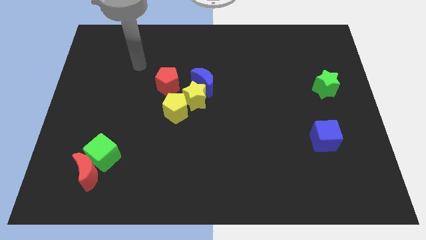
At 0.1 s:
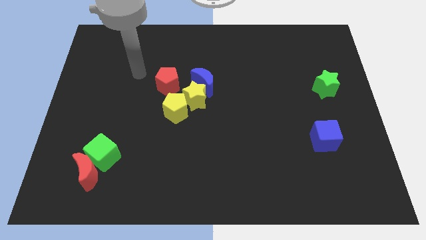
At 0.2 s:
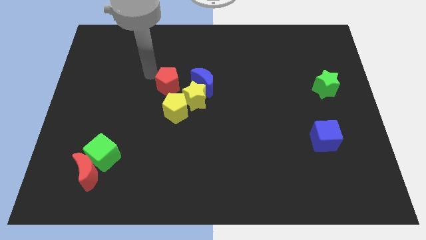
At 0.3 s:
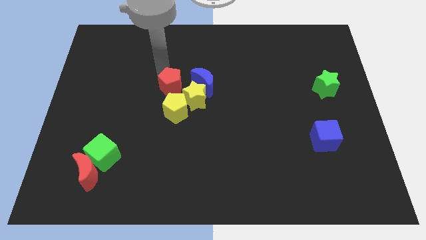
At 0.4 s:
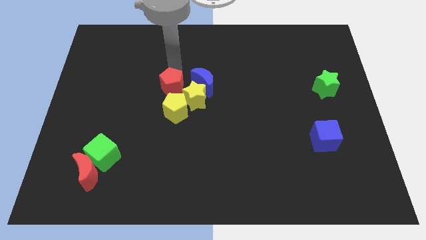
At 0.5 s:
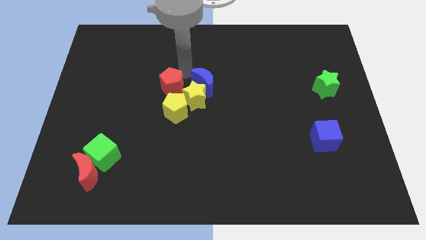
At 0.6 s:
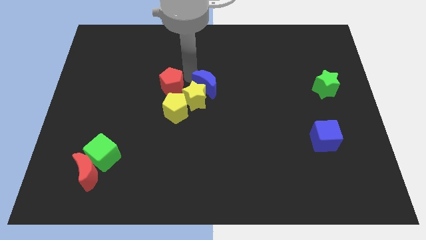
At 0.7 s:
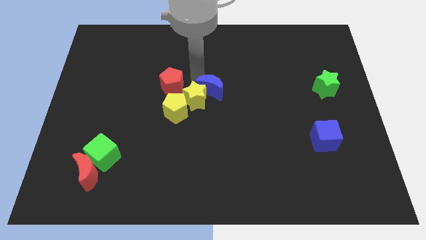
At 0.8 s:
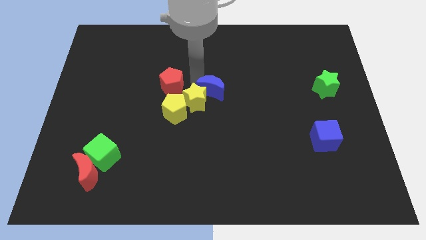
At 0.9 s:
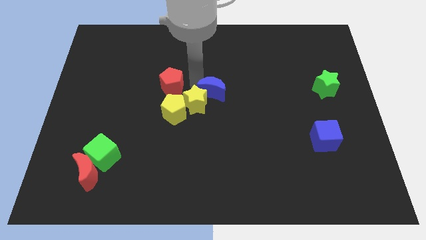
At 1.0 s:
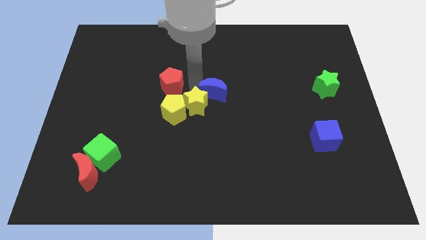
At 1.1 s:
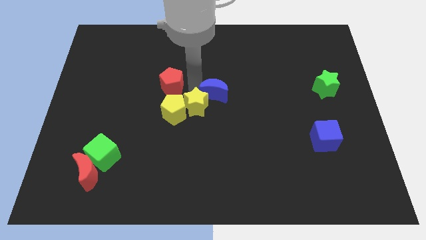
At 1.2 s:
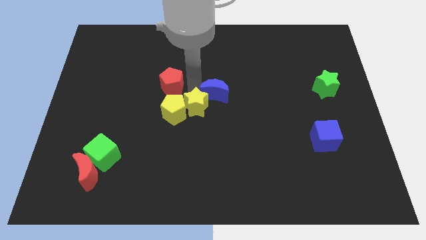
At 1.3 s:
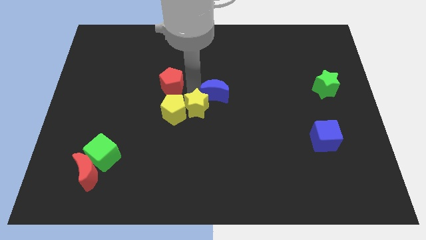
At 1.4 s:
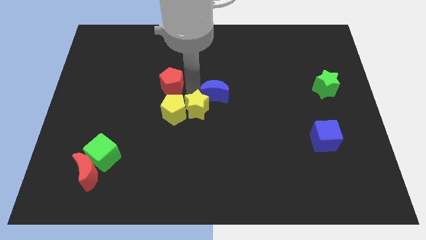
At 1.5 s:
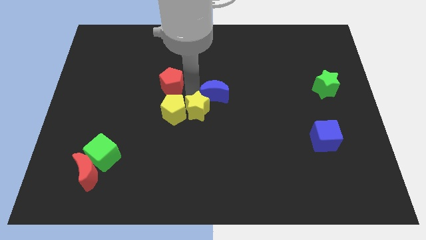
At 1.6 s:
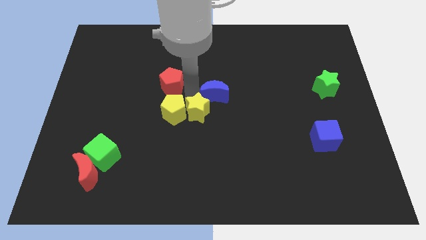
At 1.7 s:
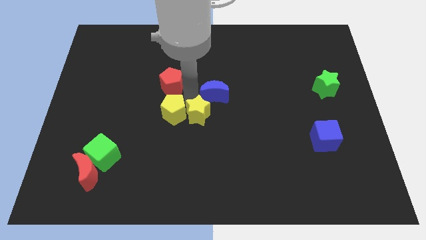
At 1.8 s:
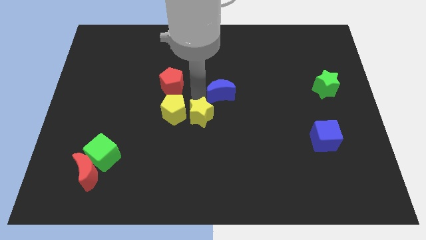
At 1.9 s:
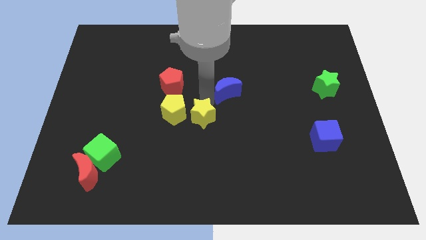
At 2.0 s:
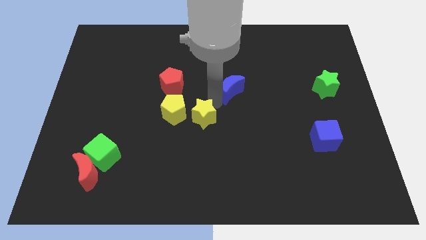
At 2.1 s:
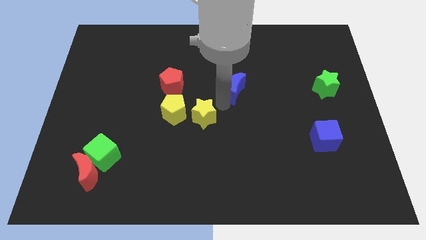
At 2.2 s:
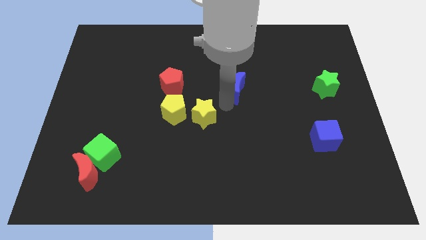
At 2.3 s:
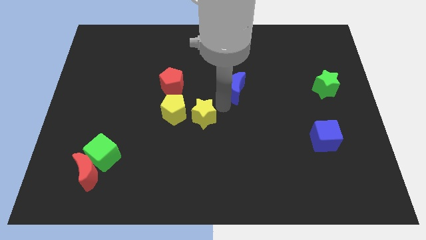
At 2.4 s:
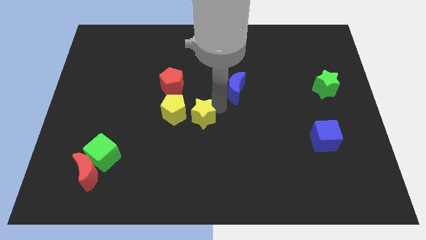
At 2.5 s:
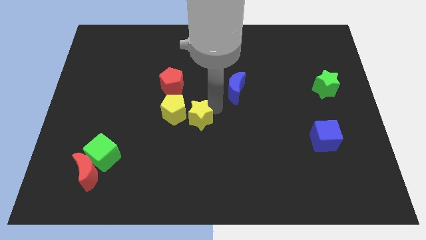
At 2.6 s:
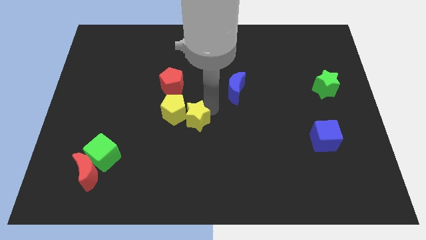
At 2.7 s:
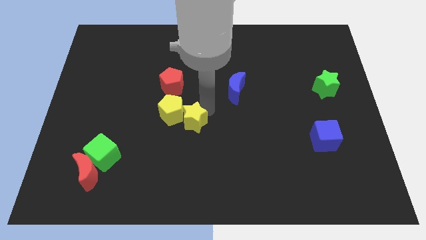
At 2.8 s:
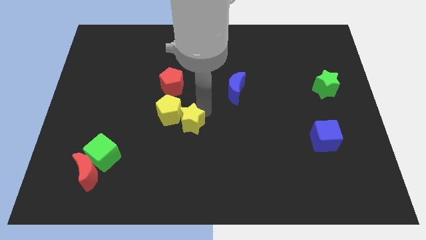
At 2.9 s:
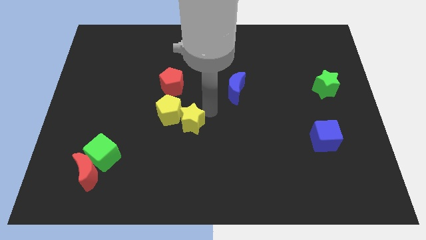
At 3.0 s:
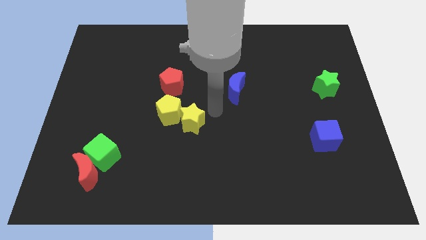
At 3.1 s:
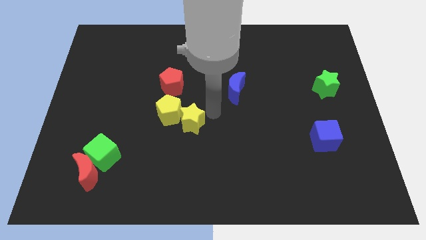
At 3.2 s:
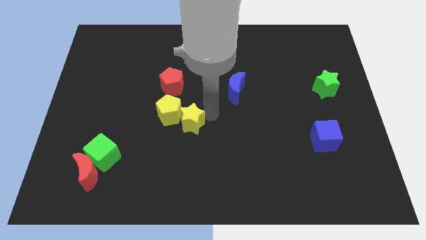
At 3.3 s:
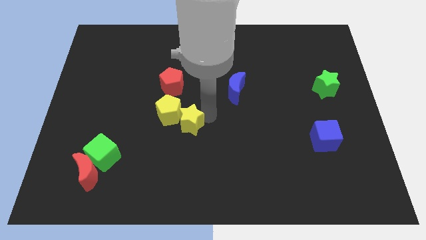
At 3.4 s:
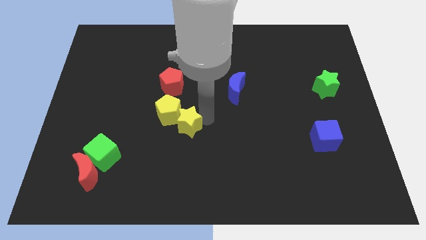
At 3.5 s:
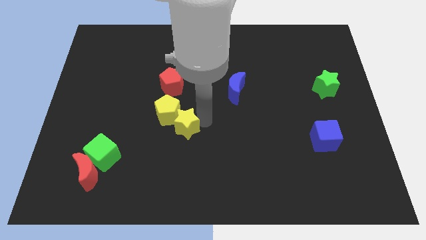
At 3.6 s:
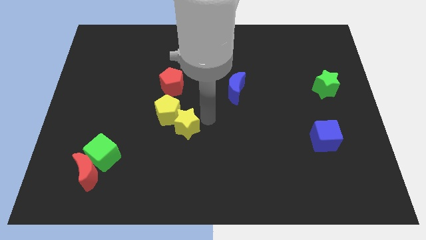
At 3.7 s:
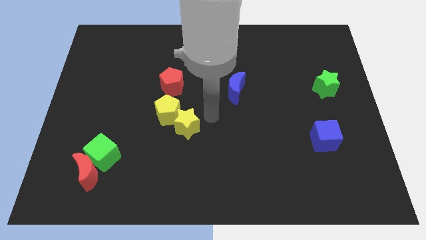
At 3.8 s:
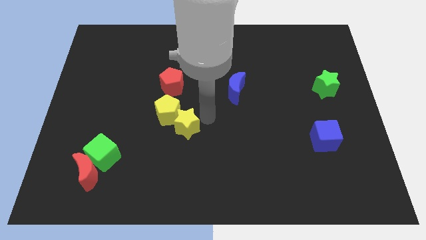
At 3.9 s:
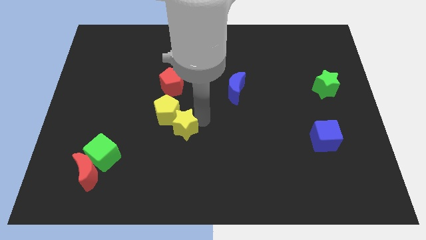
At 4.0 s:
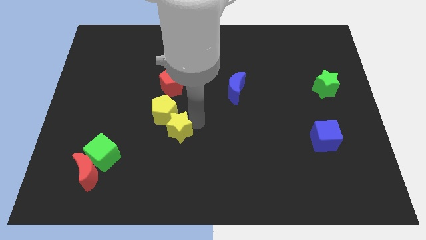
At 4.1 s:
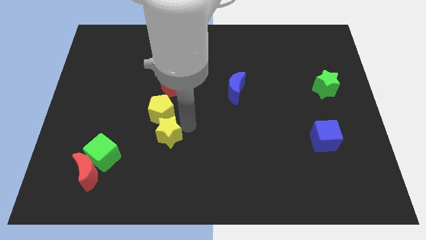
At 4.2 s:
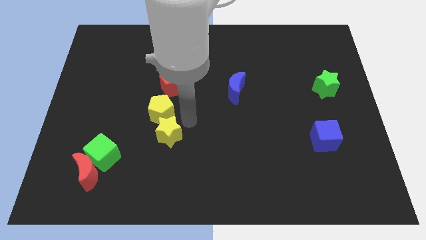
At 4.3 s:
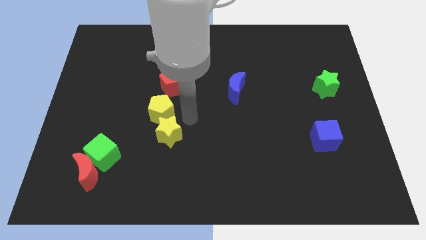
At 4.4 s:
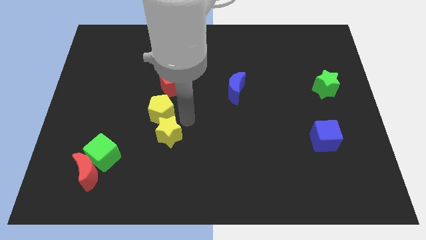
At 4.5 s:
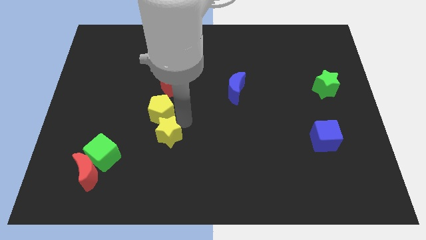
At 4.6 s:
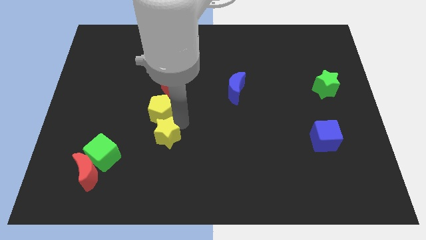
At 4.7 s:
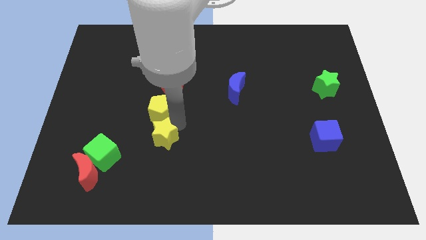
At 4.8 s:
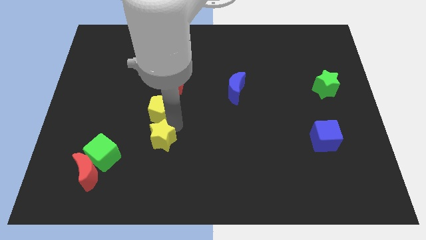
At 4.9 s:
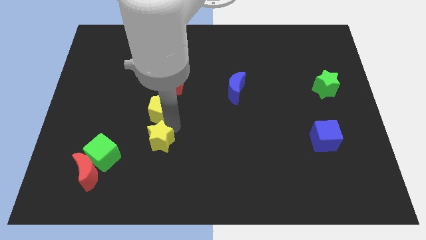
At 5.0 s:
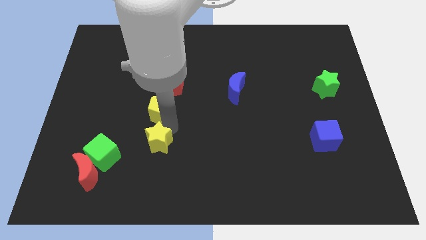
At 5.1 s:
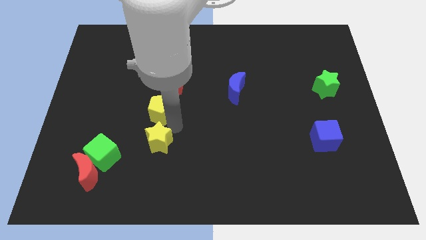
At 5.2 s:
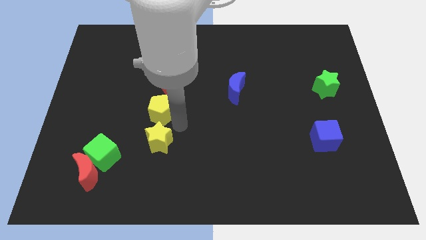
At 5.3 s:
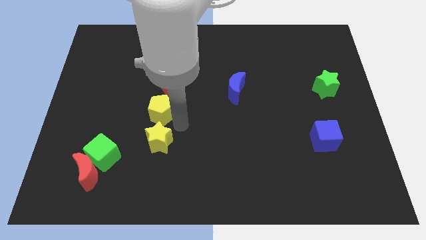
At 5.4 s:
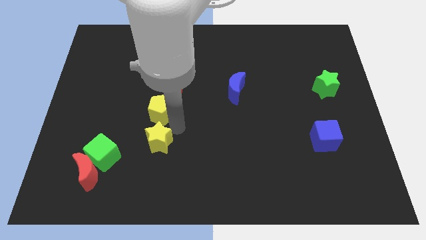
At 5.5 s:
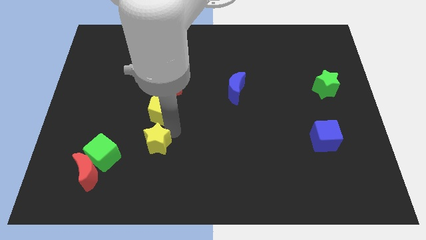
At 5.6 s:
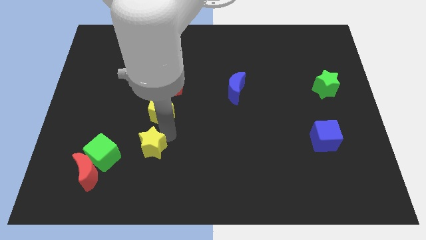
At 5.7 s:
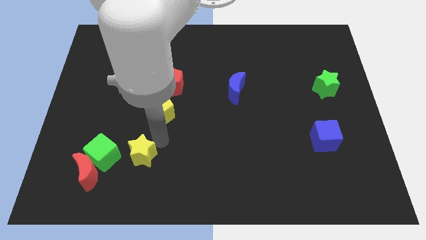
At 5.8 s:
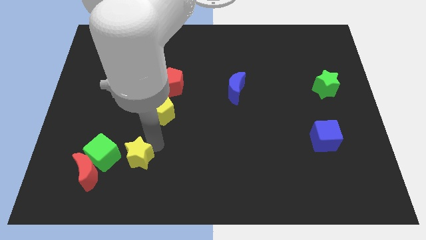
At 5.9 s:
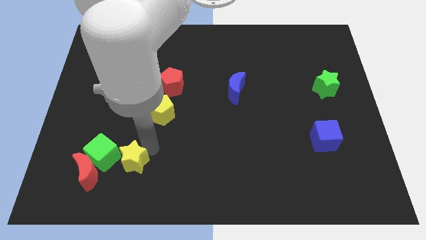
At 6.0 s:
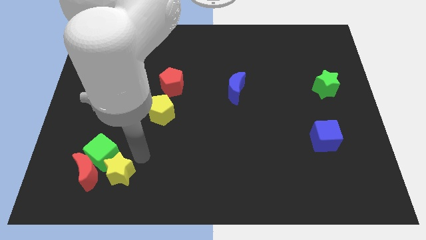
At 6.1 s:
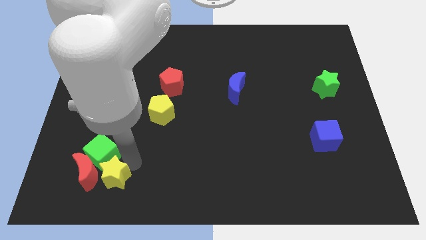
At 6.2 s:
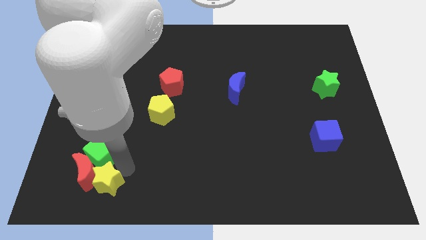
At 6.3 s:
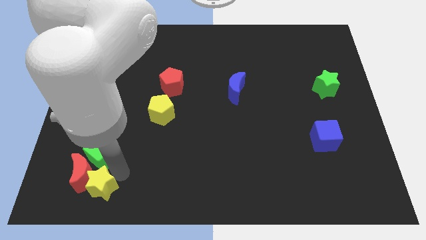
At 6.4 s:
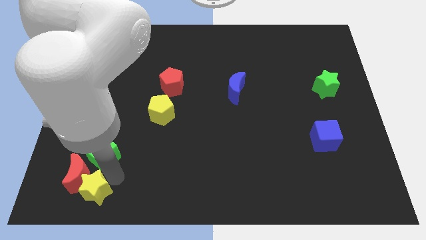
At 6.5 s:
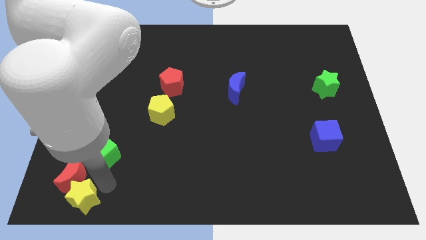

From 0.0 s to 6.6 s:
push the yellow star to the lower left corner
